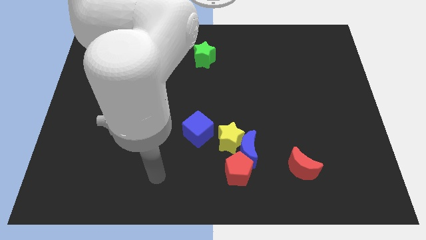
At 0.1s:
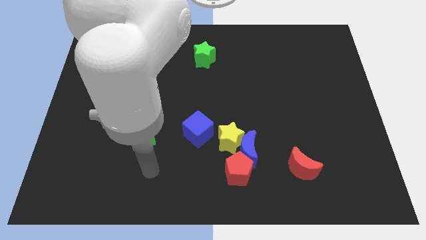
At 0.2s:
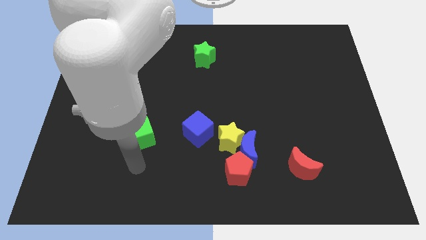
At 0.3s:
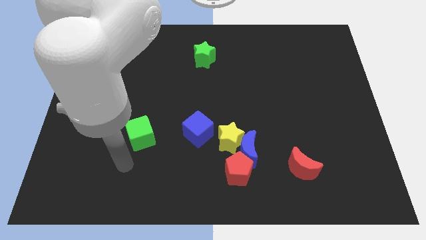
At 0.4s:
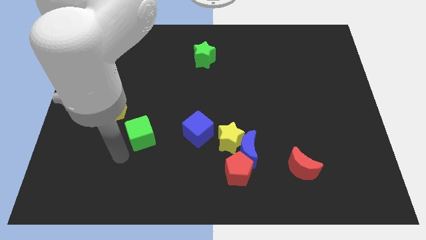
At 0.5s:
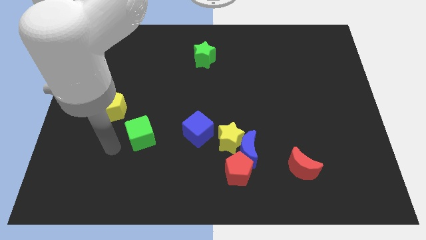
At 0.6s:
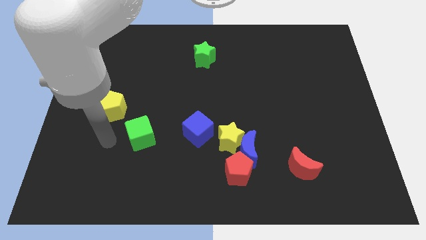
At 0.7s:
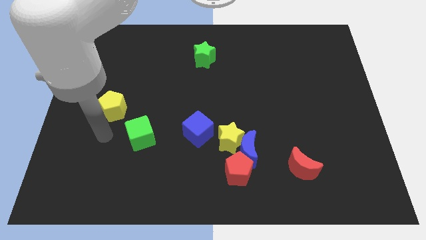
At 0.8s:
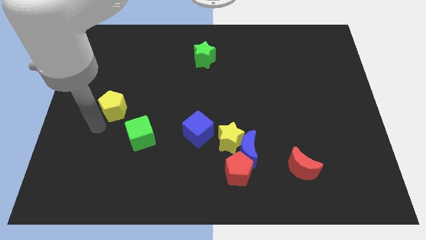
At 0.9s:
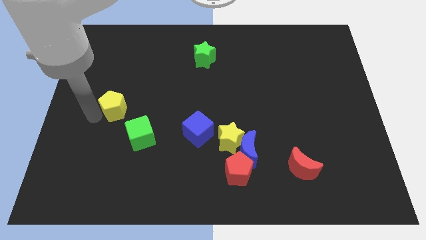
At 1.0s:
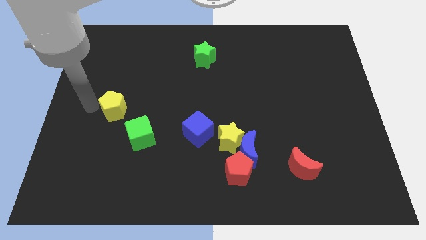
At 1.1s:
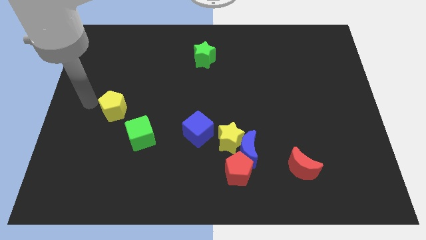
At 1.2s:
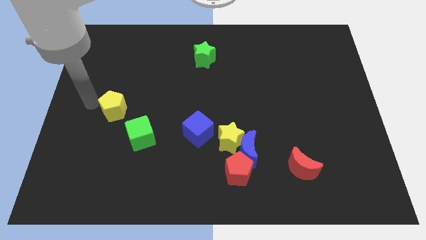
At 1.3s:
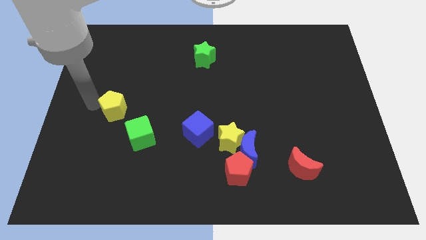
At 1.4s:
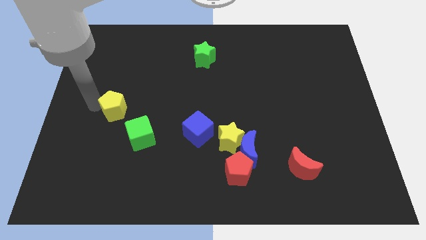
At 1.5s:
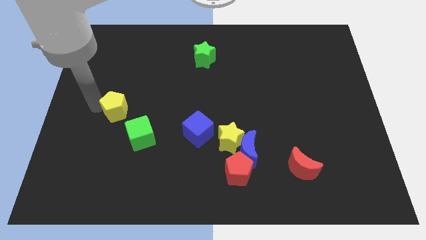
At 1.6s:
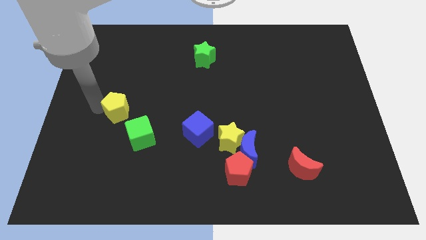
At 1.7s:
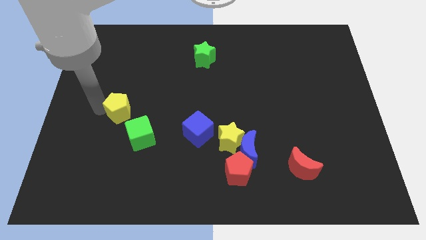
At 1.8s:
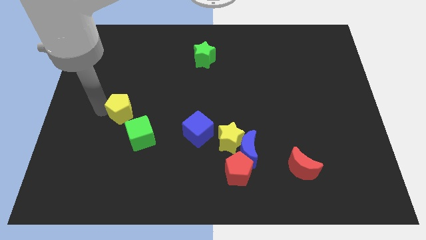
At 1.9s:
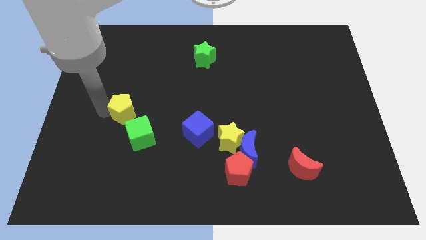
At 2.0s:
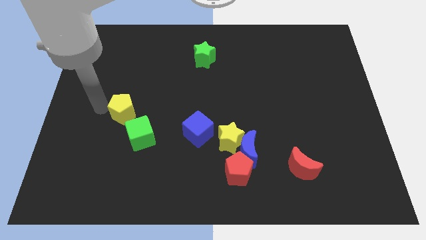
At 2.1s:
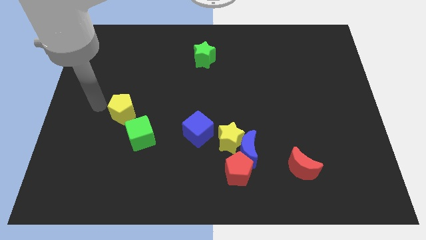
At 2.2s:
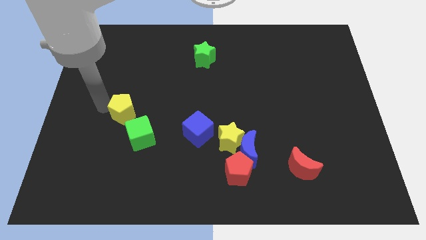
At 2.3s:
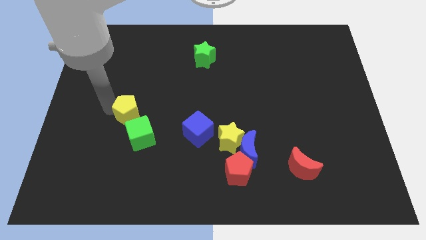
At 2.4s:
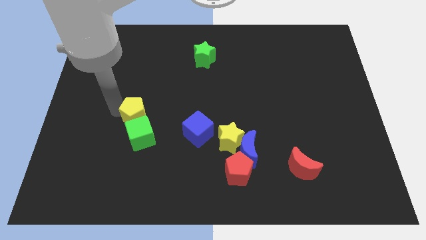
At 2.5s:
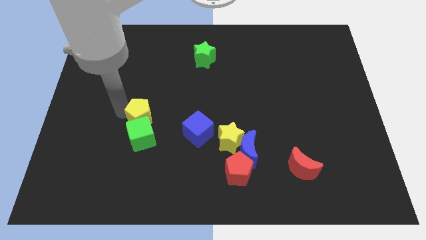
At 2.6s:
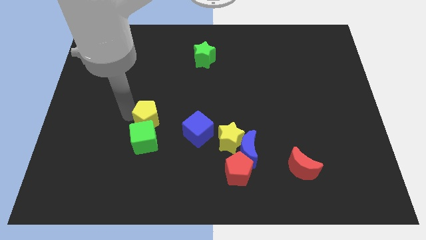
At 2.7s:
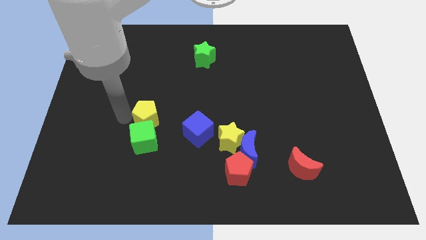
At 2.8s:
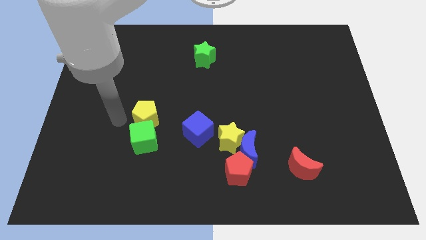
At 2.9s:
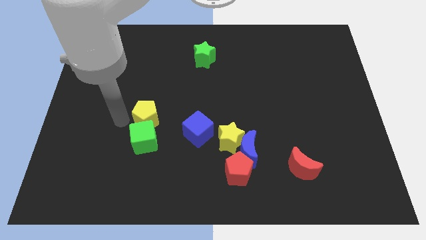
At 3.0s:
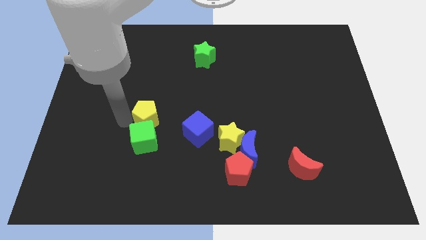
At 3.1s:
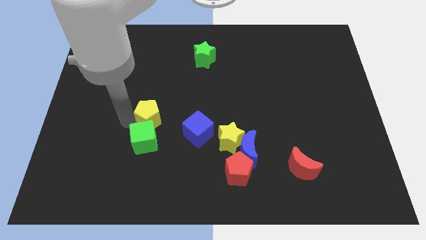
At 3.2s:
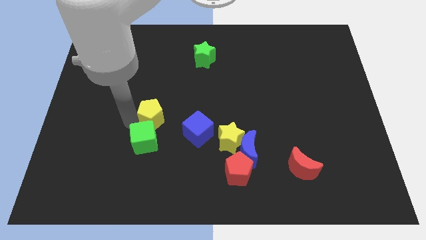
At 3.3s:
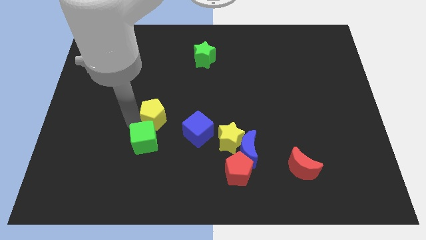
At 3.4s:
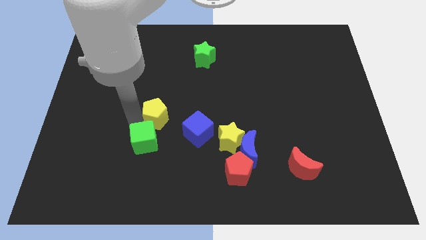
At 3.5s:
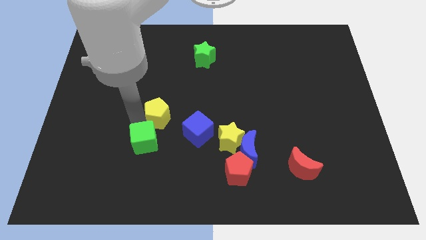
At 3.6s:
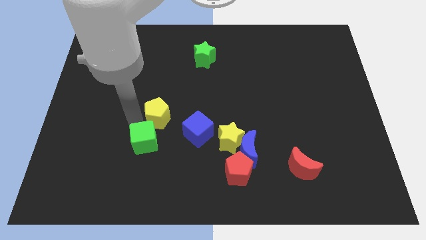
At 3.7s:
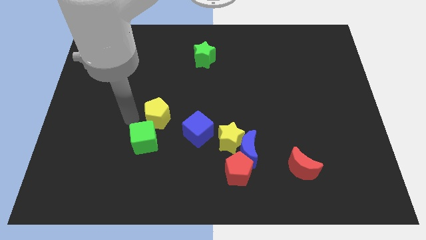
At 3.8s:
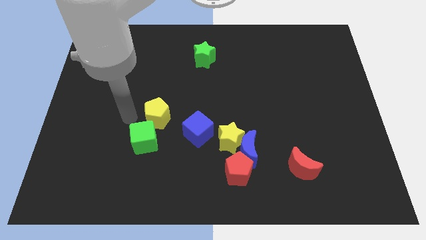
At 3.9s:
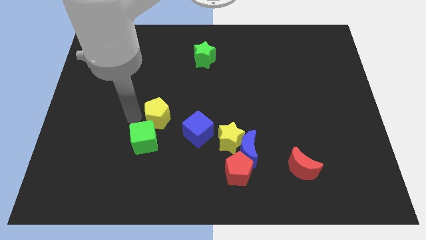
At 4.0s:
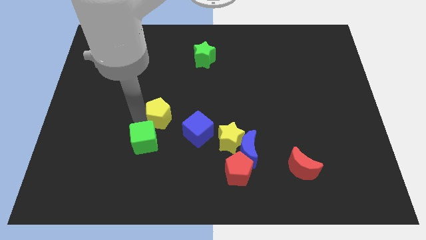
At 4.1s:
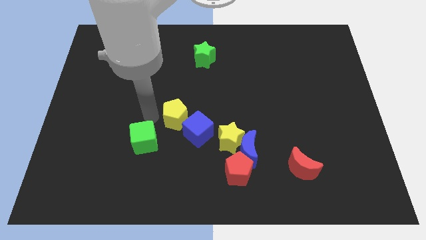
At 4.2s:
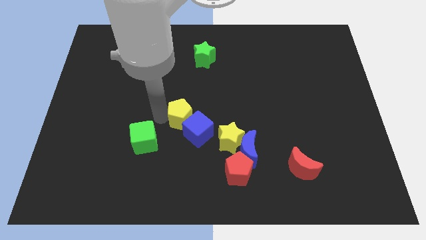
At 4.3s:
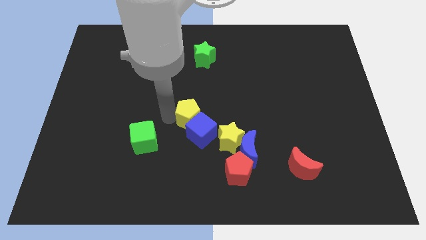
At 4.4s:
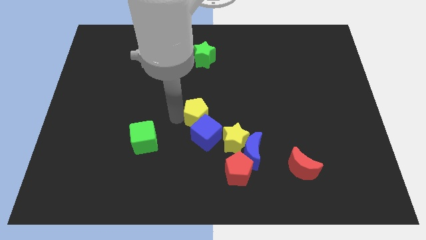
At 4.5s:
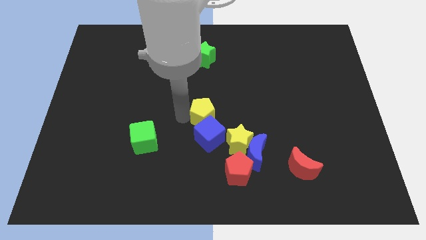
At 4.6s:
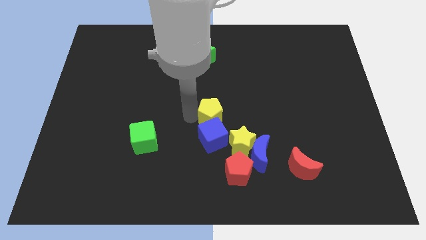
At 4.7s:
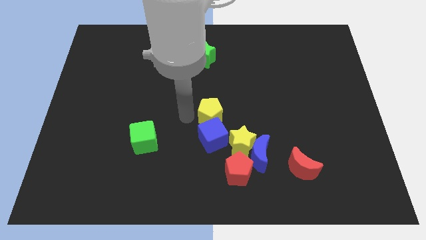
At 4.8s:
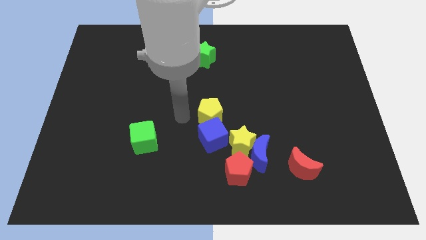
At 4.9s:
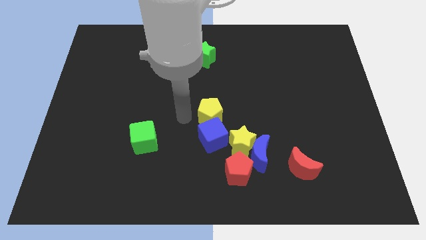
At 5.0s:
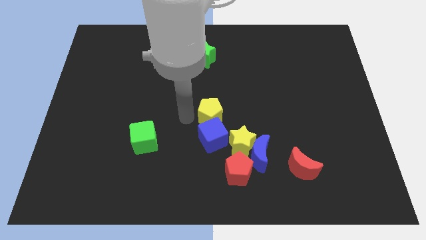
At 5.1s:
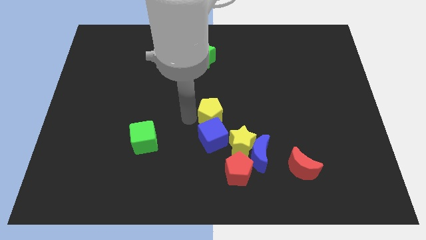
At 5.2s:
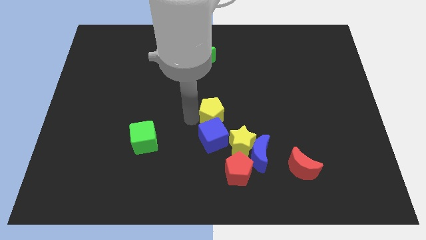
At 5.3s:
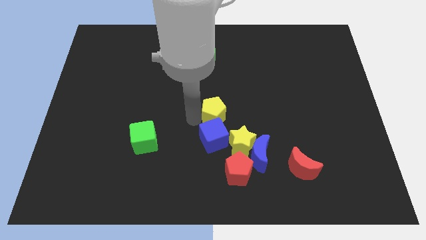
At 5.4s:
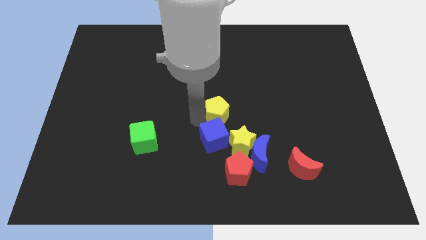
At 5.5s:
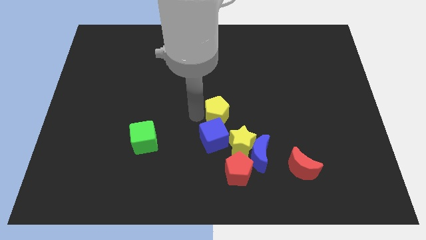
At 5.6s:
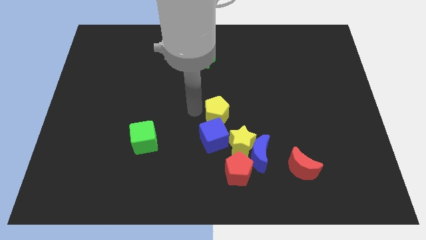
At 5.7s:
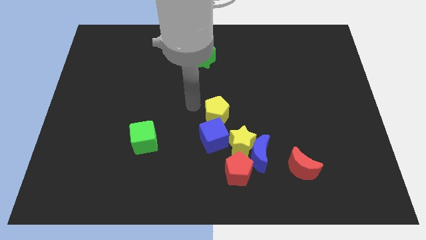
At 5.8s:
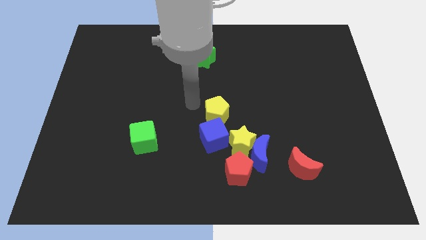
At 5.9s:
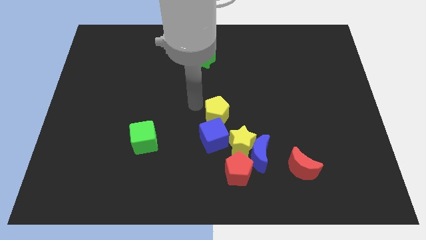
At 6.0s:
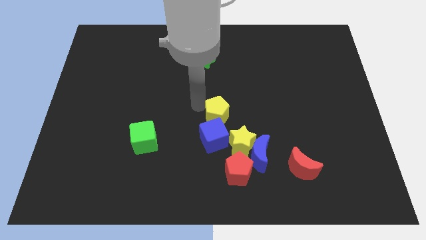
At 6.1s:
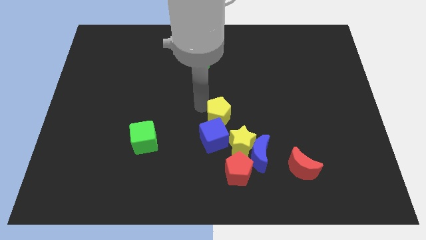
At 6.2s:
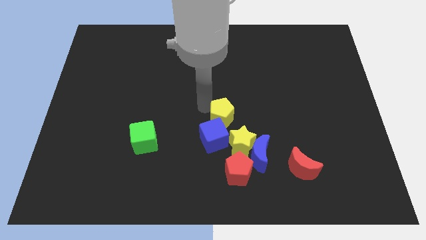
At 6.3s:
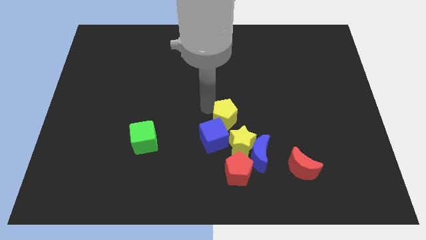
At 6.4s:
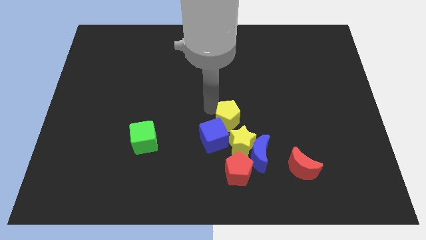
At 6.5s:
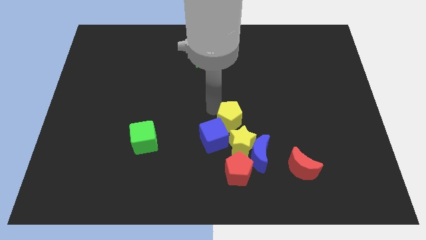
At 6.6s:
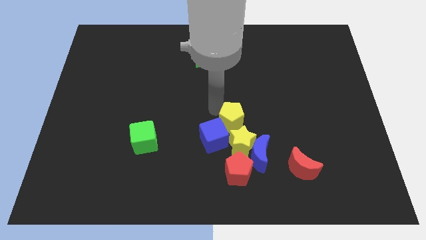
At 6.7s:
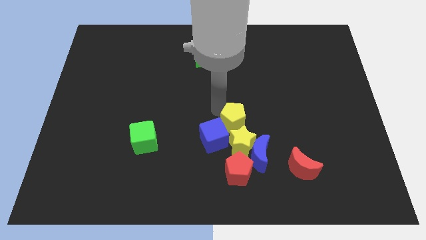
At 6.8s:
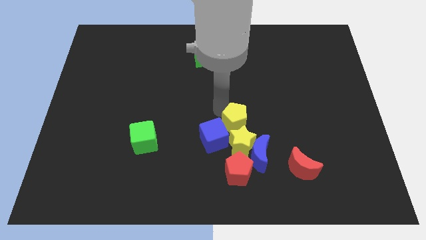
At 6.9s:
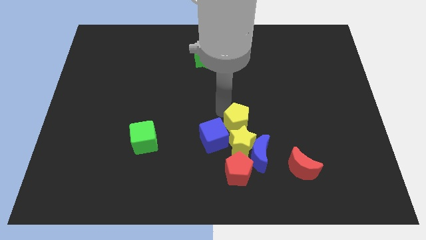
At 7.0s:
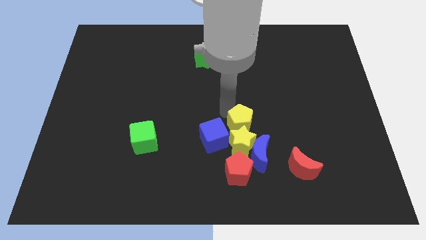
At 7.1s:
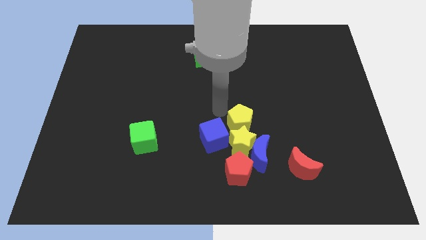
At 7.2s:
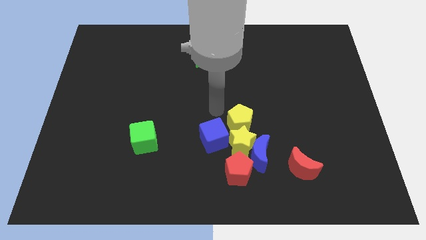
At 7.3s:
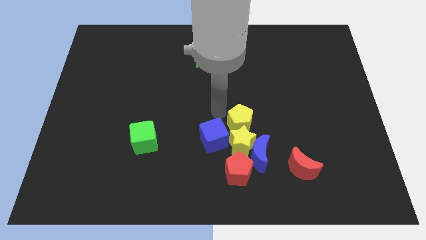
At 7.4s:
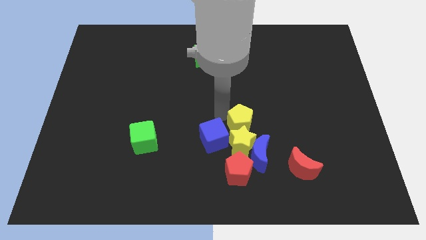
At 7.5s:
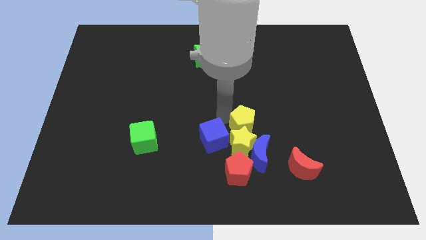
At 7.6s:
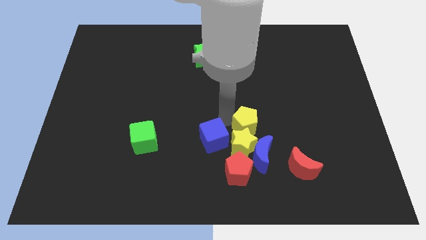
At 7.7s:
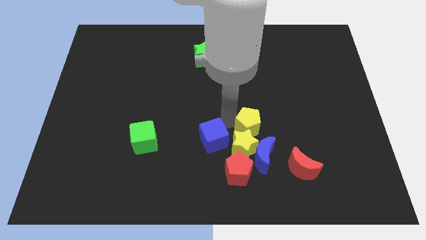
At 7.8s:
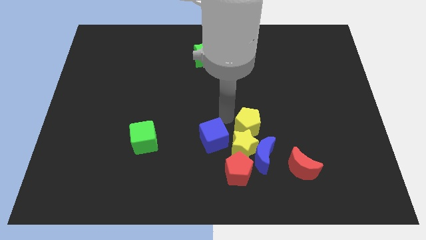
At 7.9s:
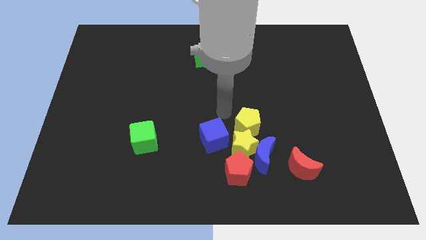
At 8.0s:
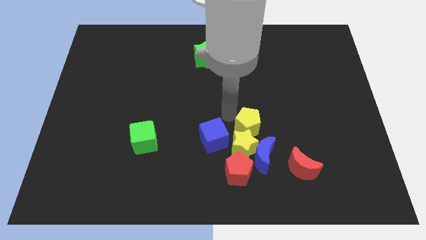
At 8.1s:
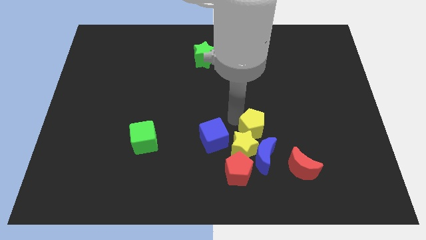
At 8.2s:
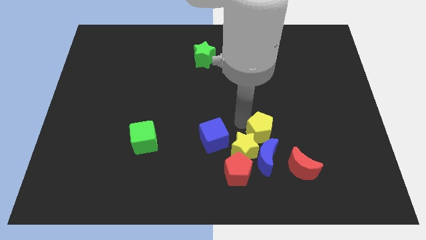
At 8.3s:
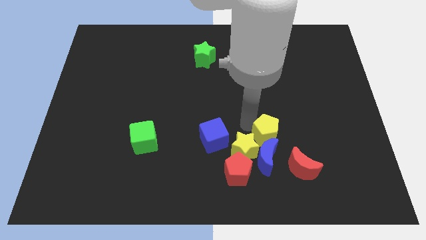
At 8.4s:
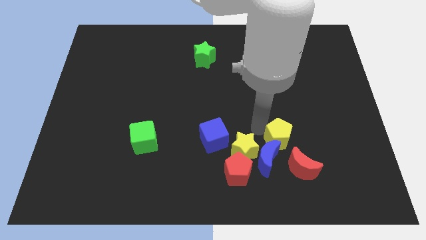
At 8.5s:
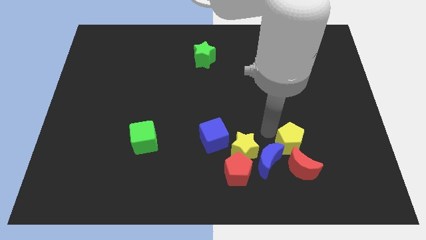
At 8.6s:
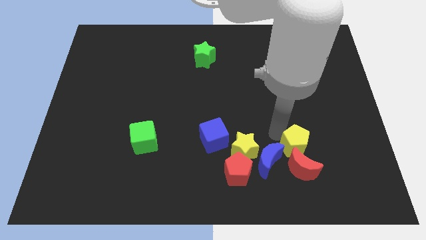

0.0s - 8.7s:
push the yellow pentagon close to the red moon
